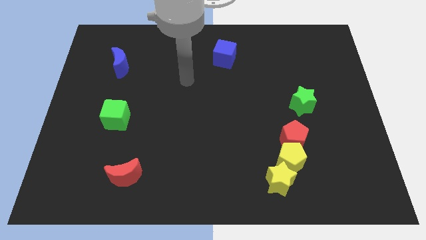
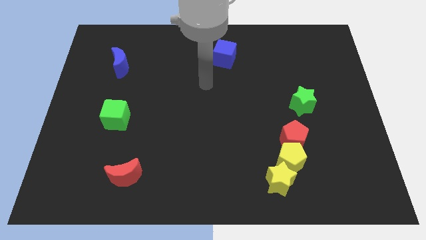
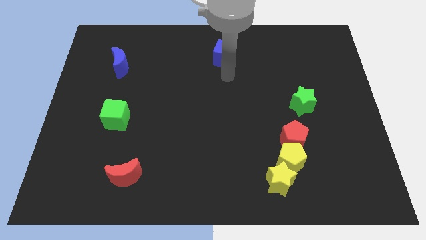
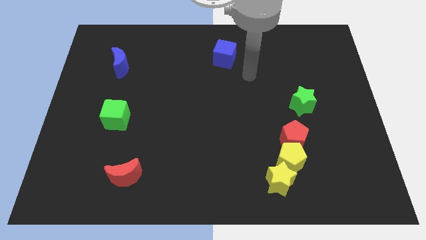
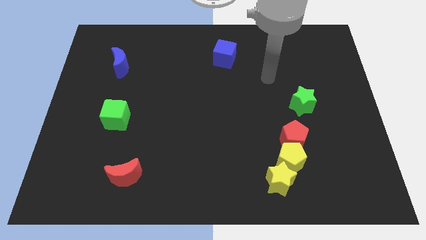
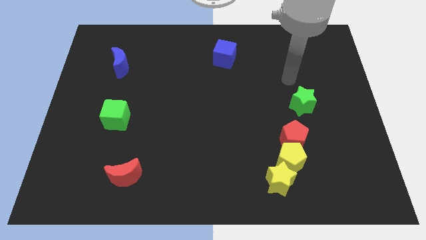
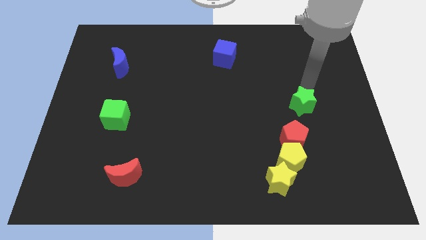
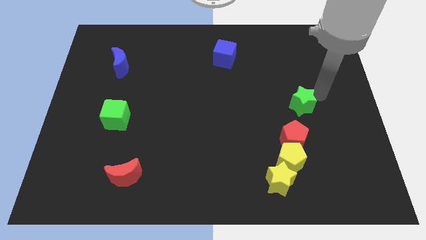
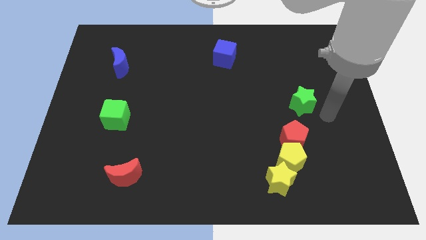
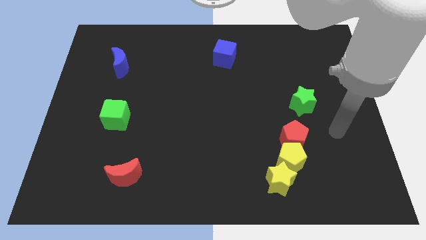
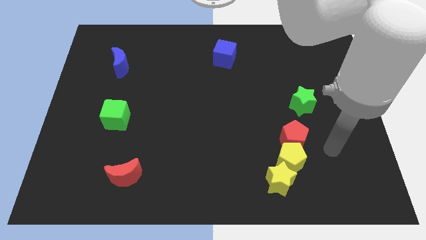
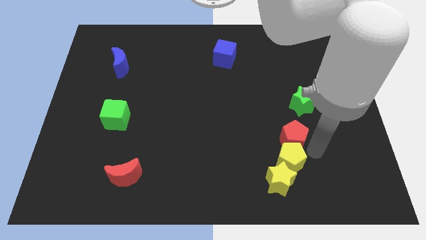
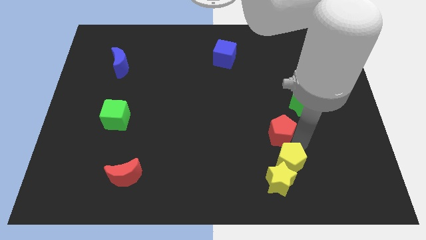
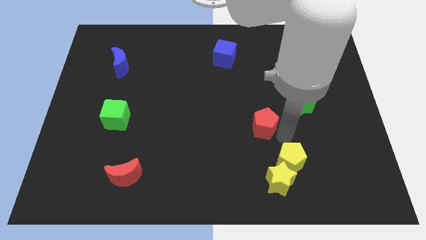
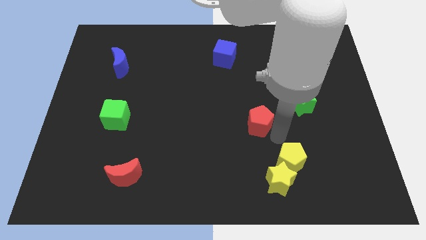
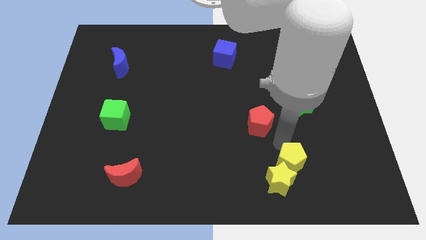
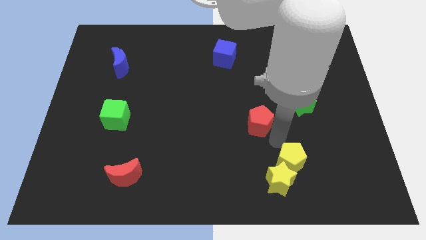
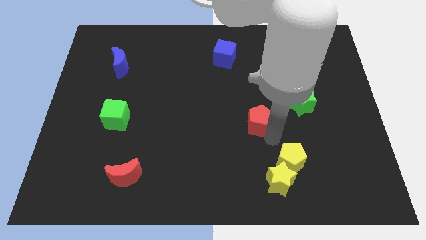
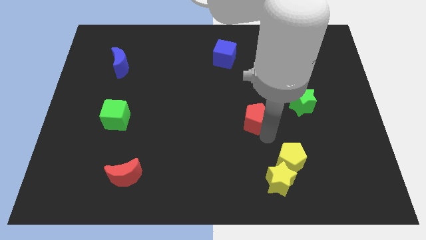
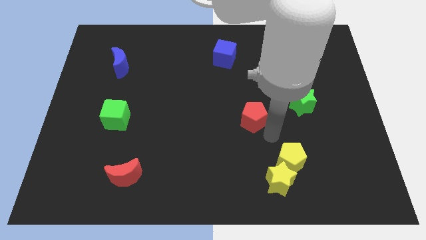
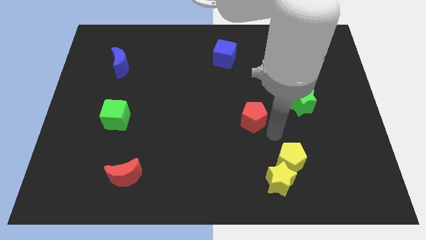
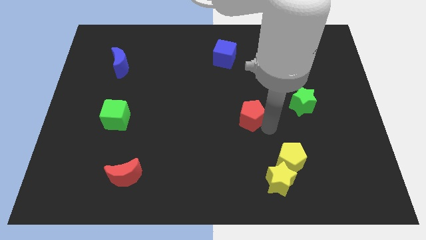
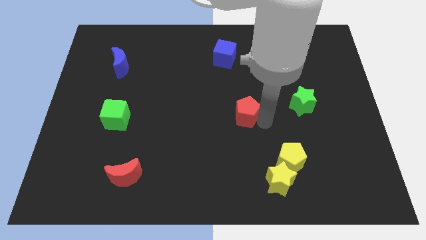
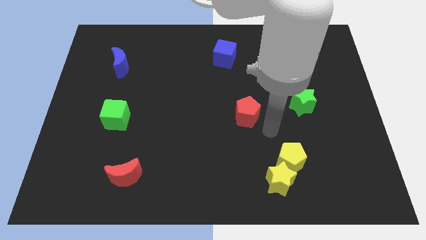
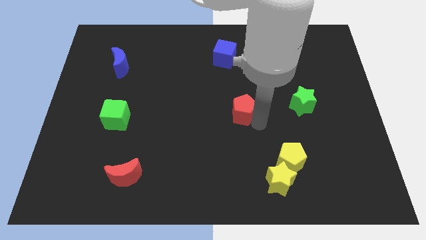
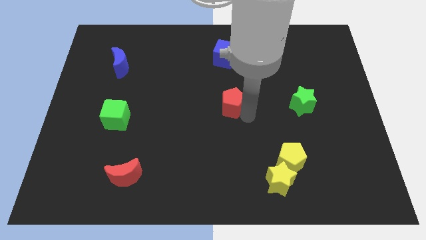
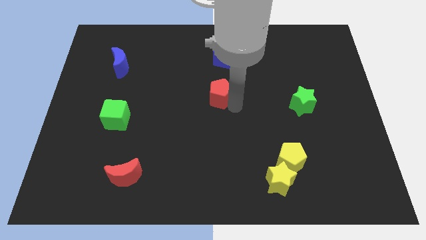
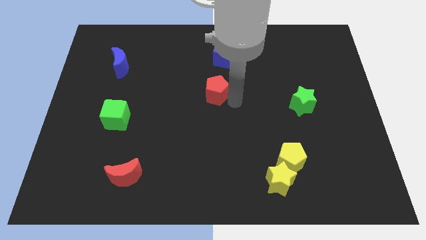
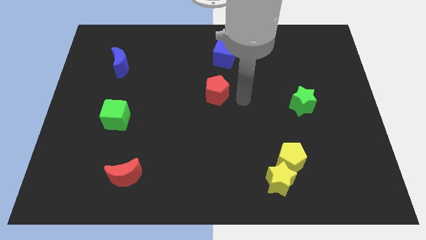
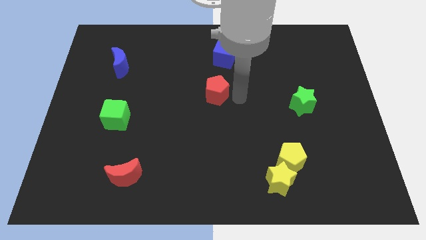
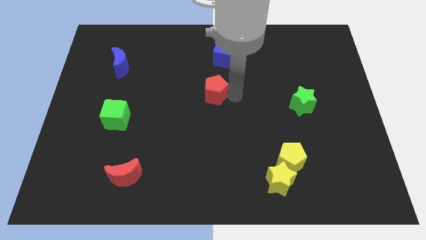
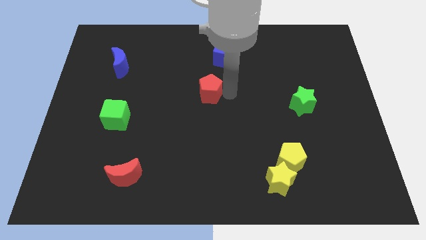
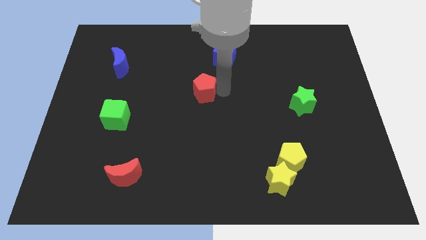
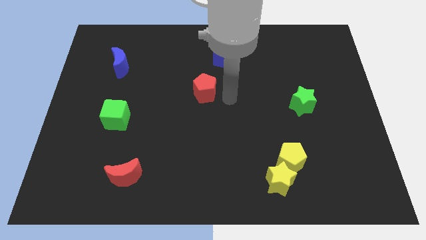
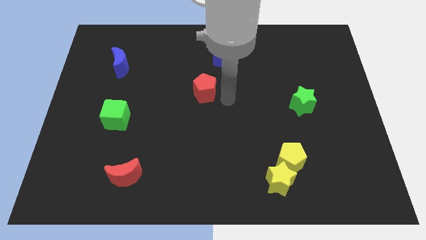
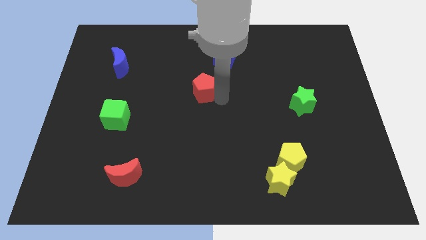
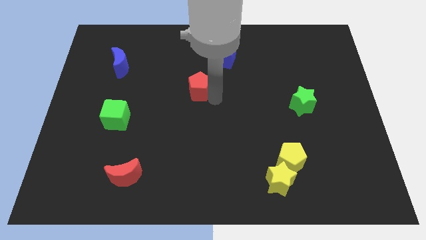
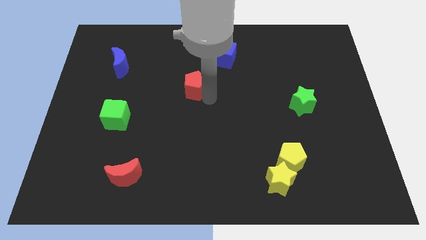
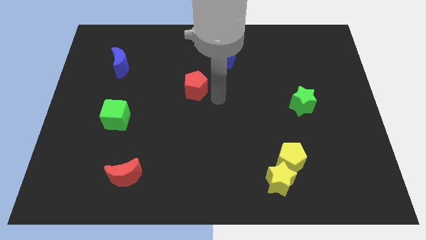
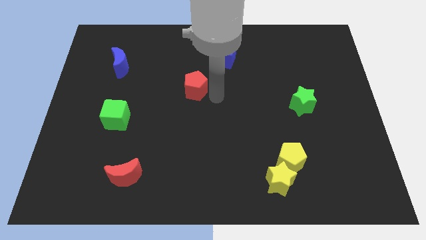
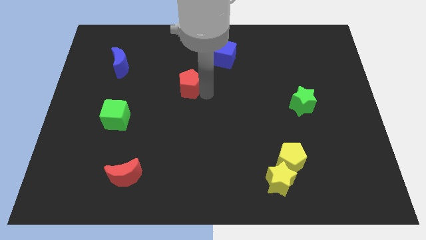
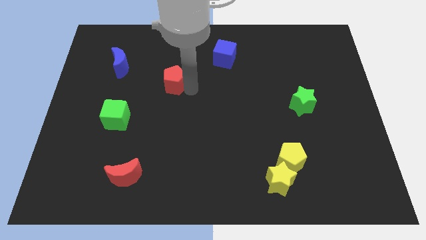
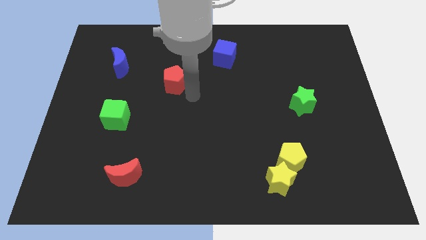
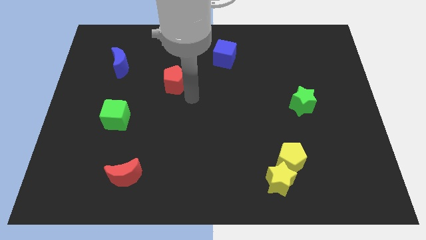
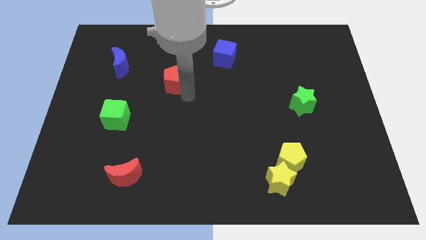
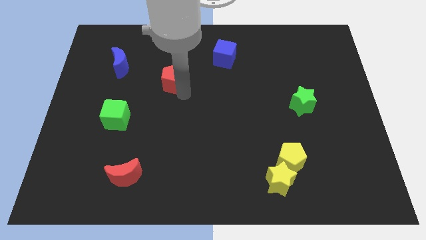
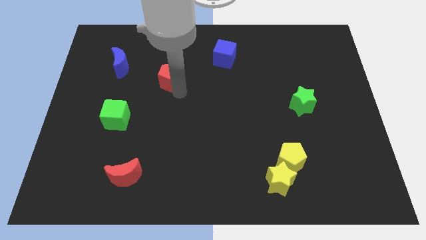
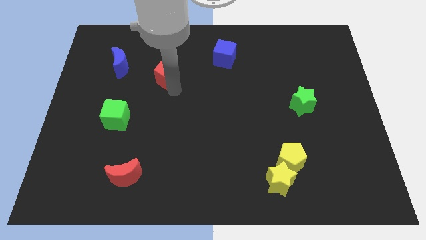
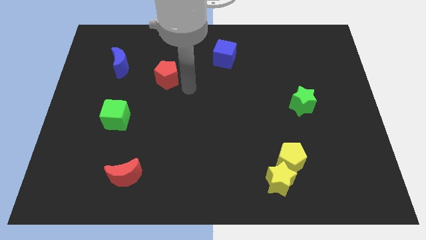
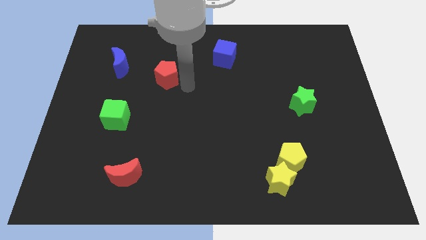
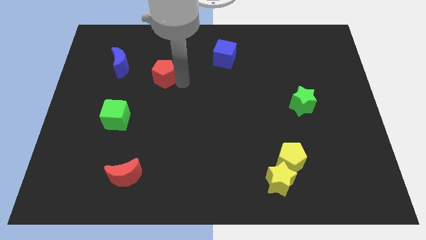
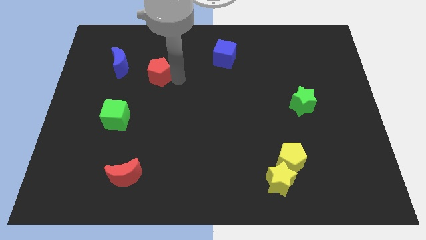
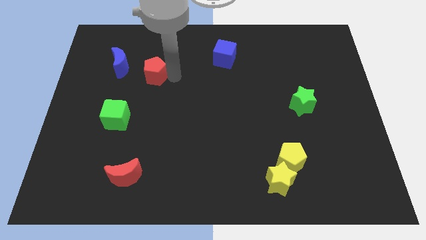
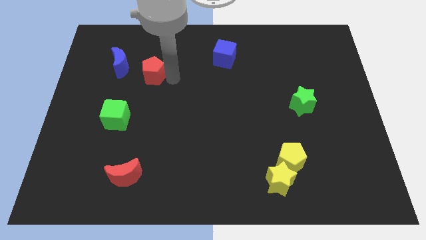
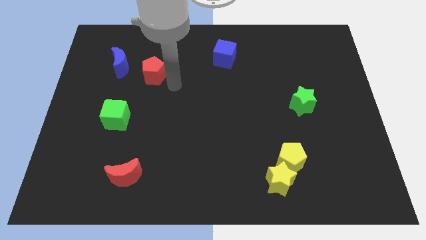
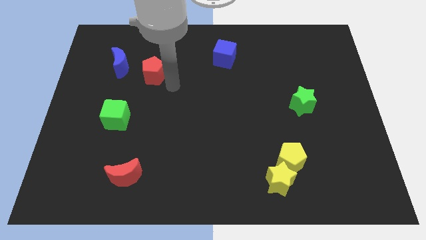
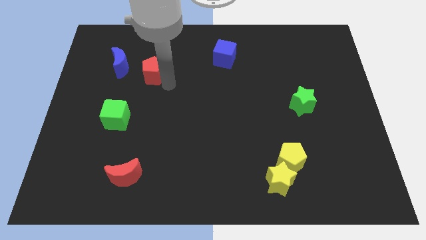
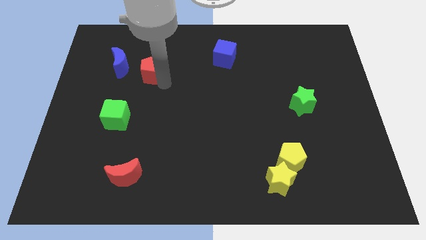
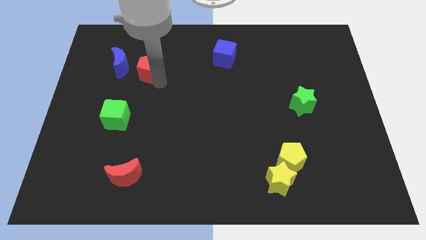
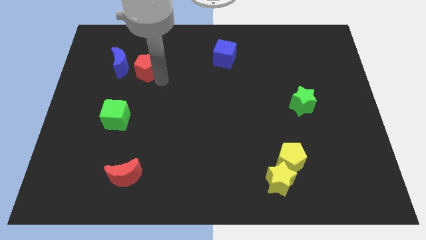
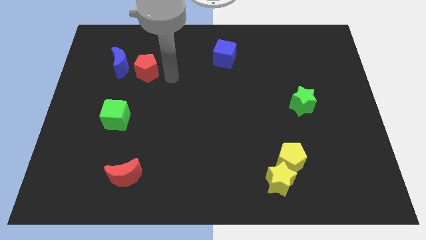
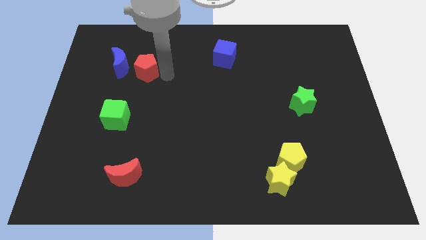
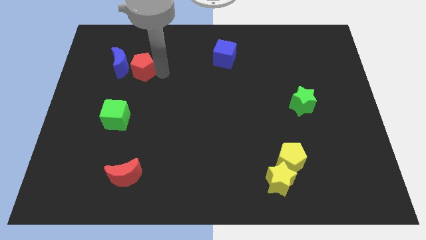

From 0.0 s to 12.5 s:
put the red pentagon to the blue moon

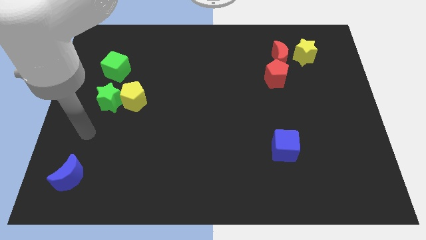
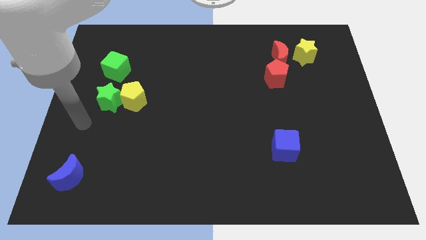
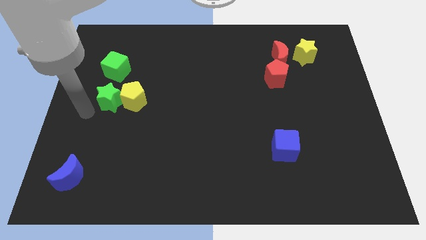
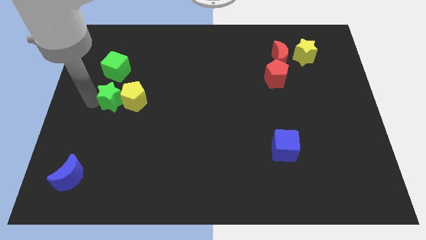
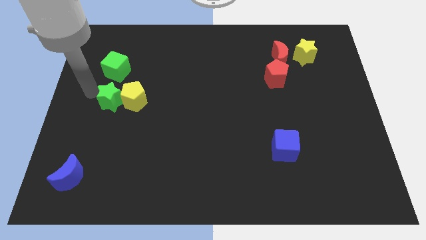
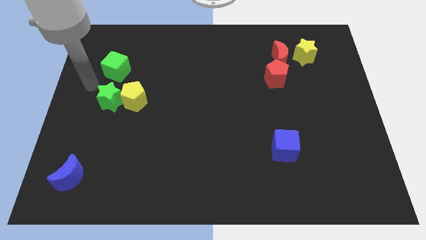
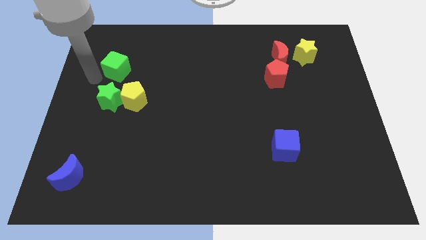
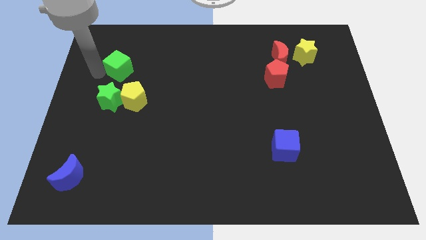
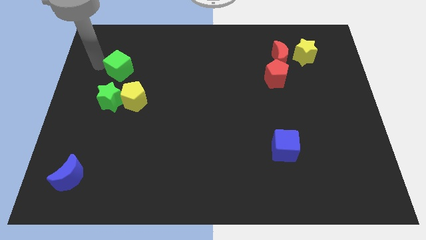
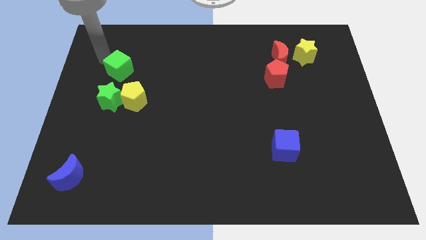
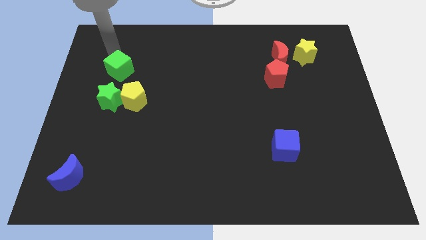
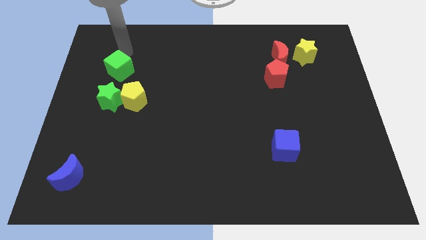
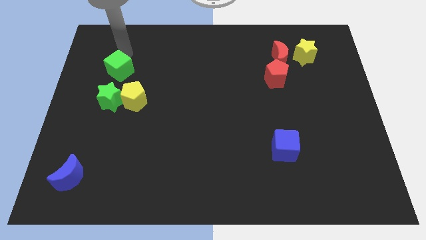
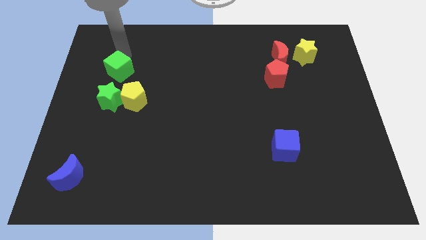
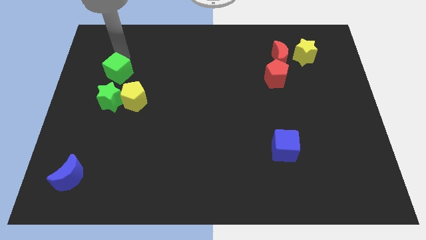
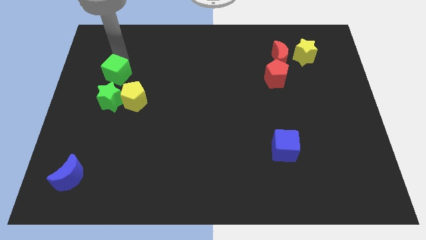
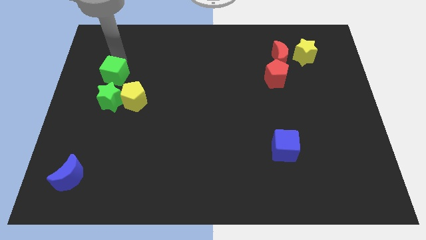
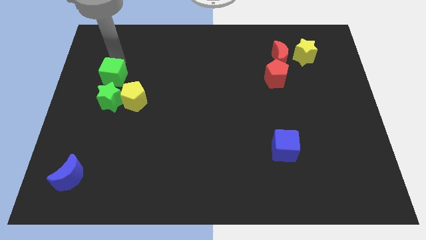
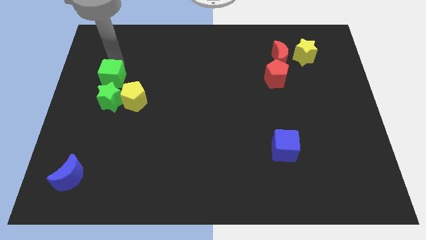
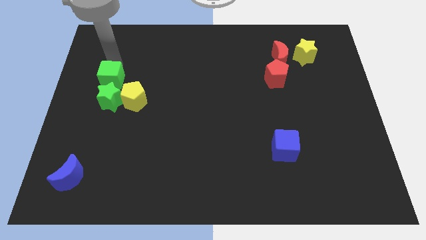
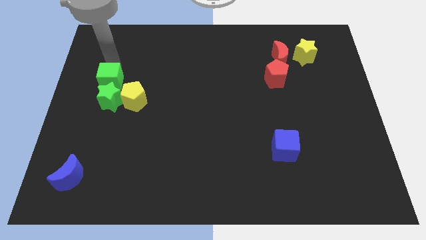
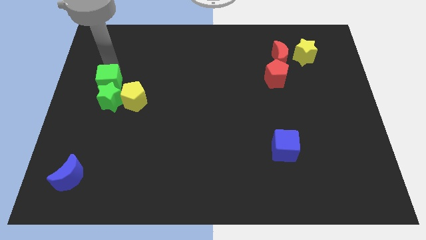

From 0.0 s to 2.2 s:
put the green cube next to the green star
